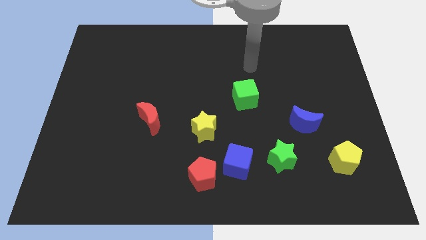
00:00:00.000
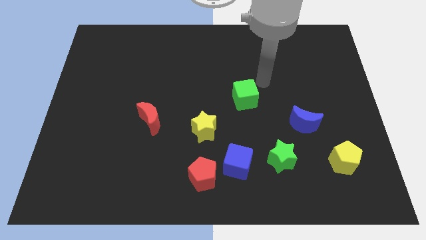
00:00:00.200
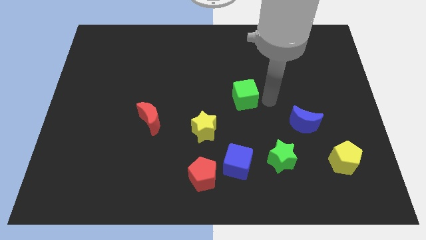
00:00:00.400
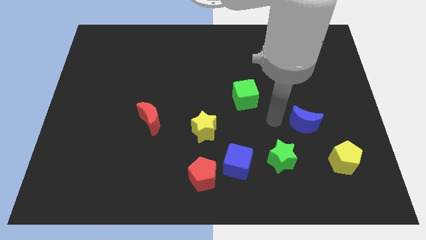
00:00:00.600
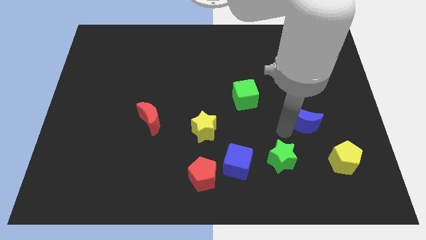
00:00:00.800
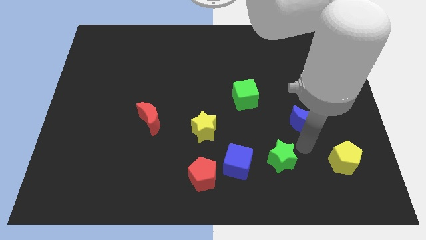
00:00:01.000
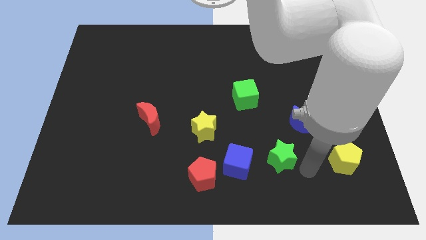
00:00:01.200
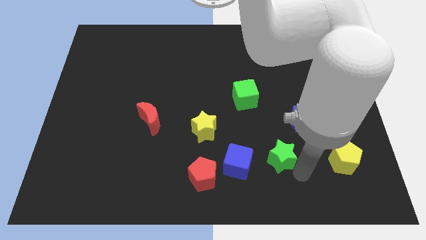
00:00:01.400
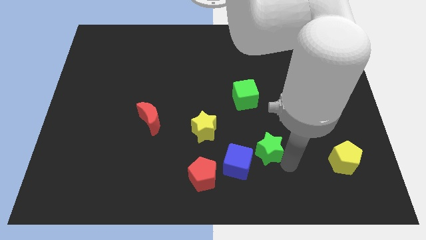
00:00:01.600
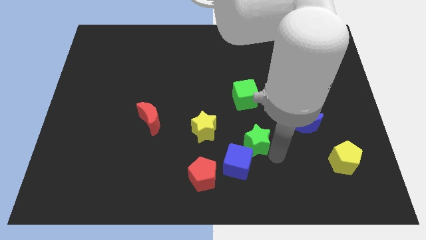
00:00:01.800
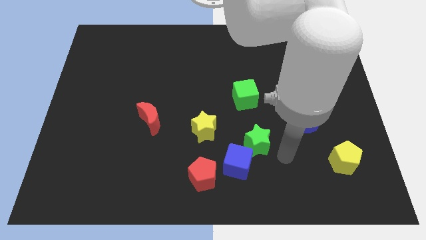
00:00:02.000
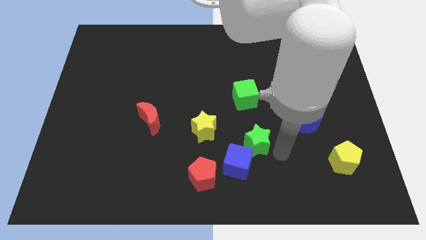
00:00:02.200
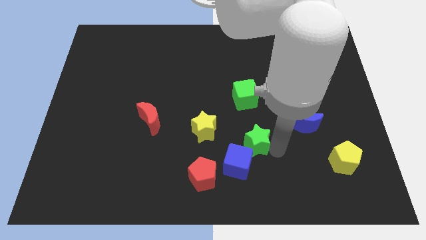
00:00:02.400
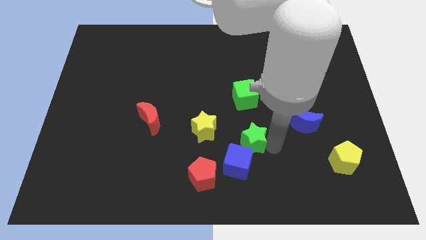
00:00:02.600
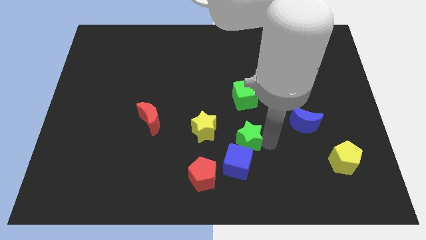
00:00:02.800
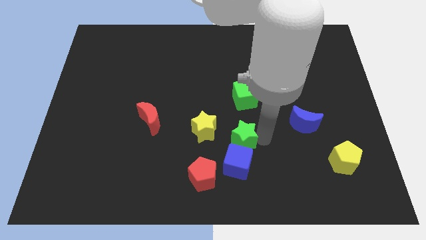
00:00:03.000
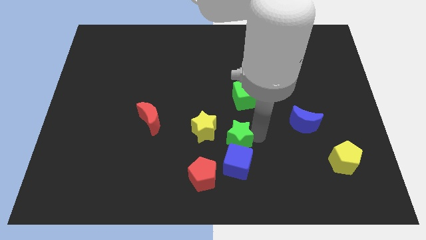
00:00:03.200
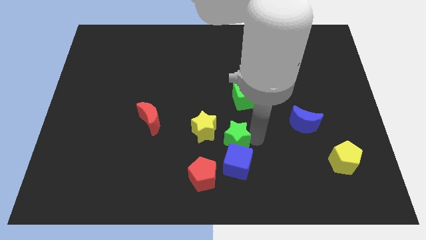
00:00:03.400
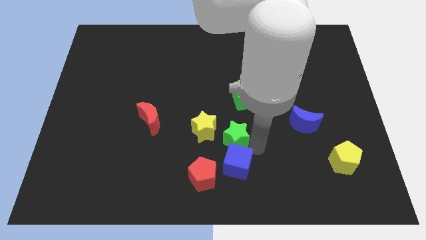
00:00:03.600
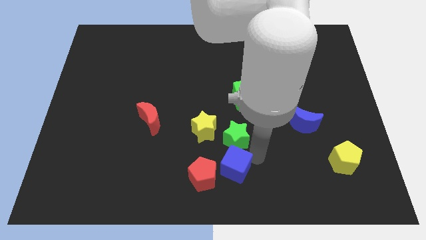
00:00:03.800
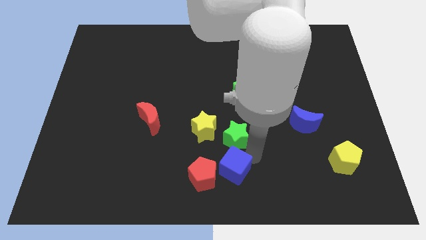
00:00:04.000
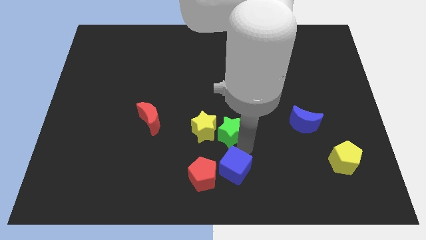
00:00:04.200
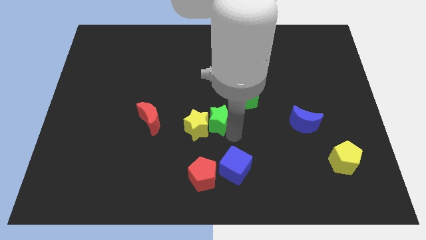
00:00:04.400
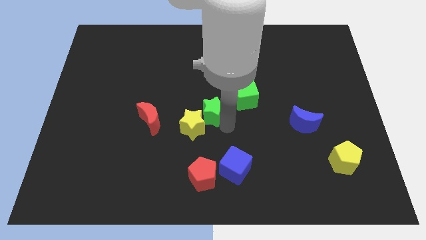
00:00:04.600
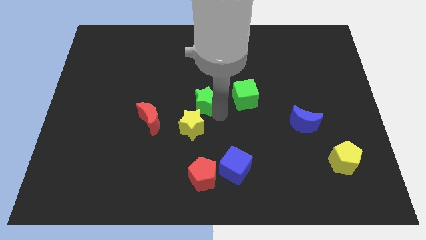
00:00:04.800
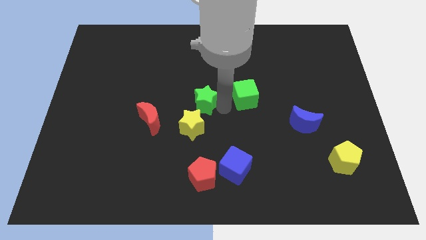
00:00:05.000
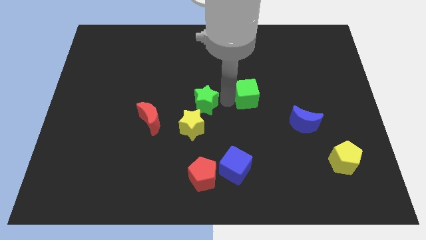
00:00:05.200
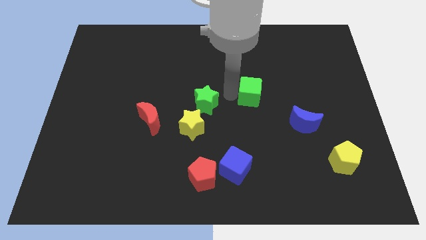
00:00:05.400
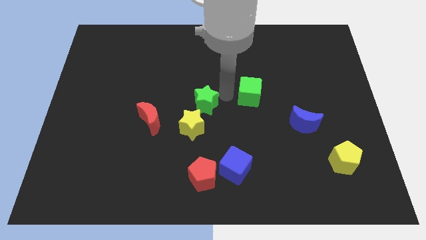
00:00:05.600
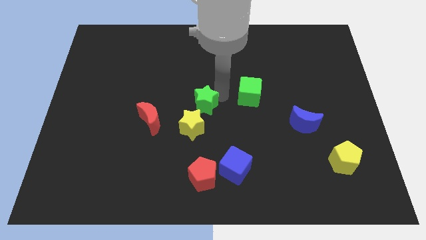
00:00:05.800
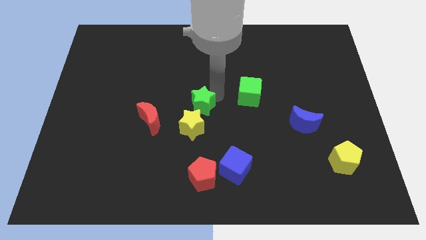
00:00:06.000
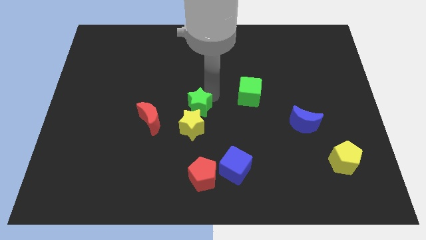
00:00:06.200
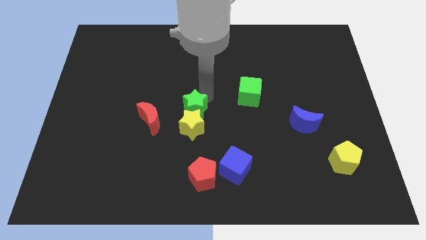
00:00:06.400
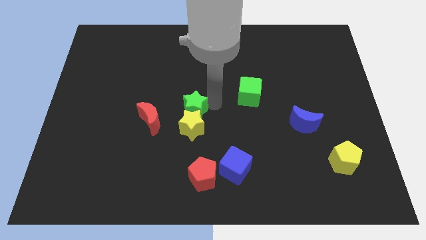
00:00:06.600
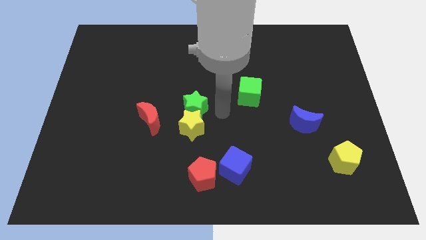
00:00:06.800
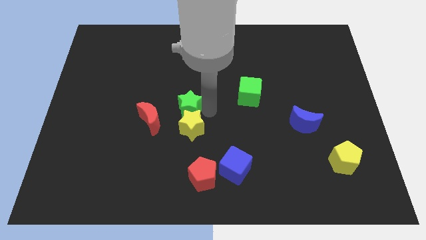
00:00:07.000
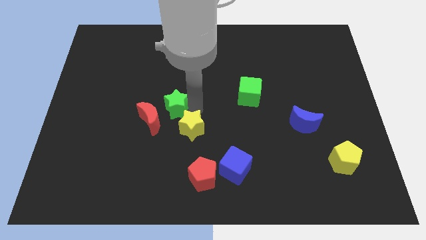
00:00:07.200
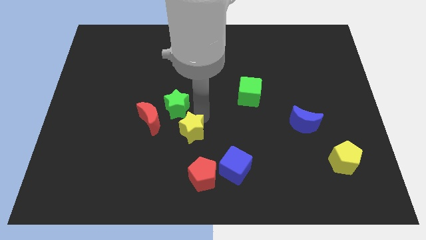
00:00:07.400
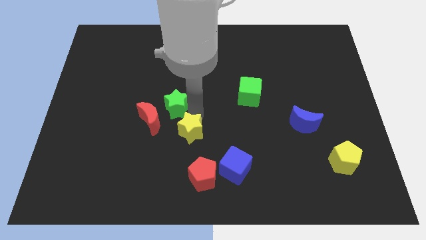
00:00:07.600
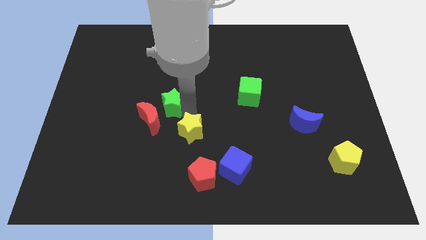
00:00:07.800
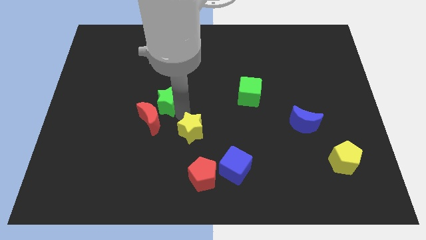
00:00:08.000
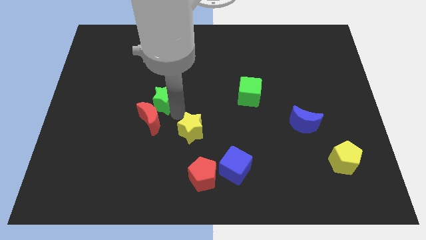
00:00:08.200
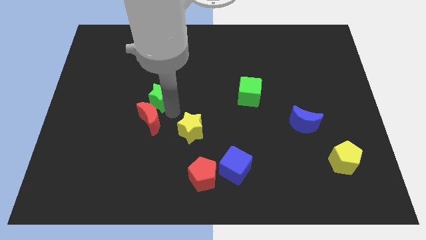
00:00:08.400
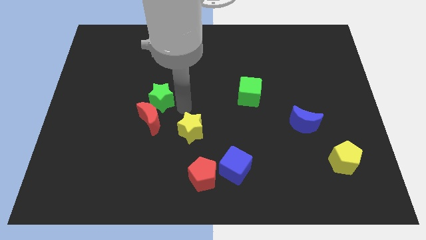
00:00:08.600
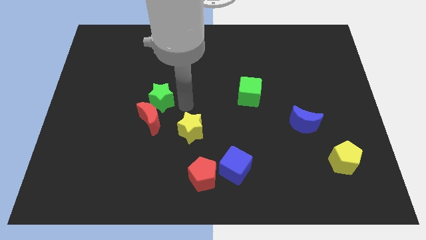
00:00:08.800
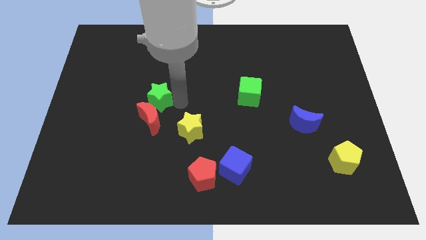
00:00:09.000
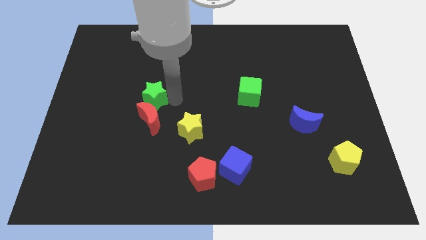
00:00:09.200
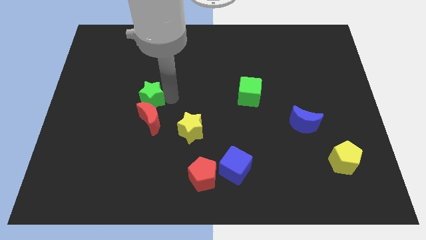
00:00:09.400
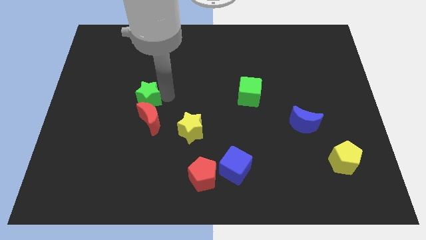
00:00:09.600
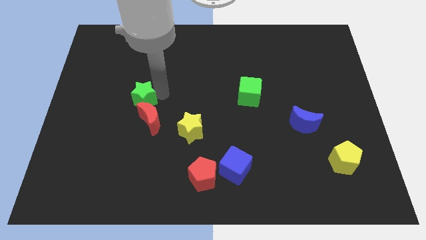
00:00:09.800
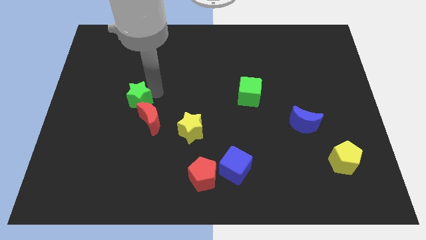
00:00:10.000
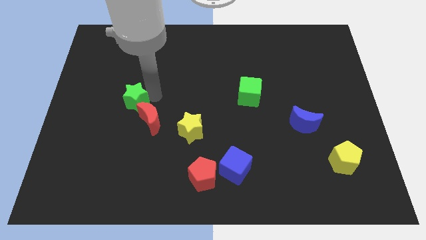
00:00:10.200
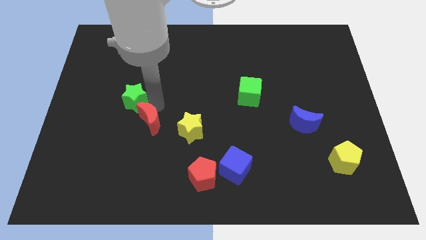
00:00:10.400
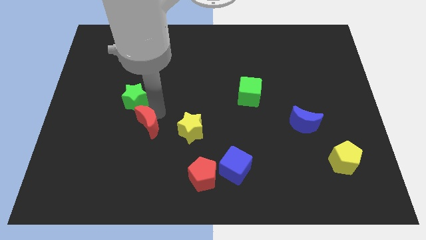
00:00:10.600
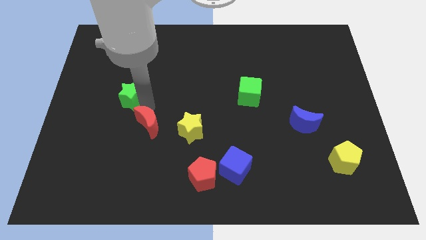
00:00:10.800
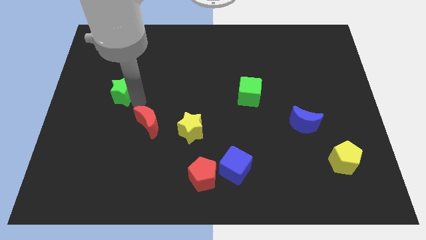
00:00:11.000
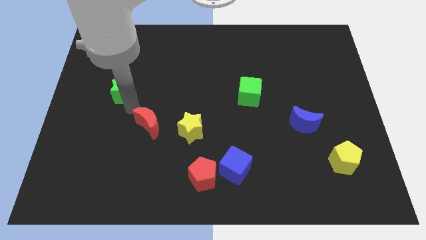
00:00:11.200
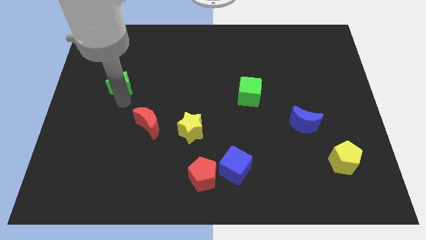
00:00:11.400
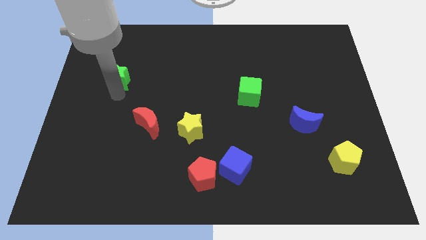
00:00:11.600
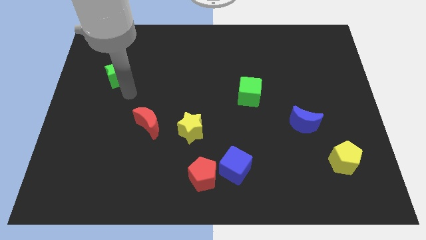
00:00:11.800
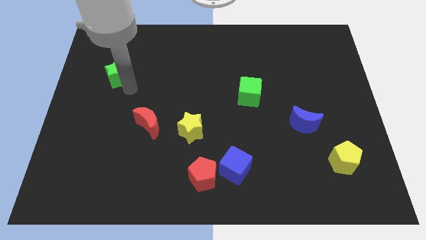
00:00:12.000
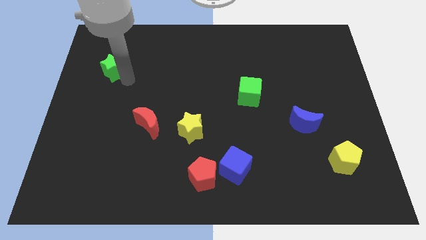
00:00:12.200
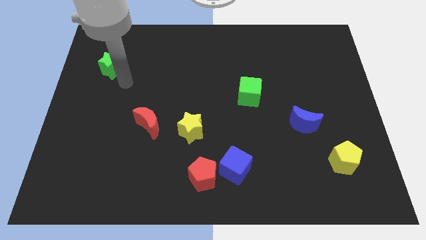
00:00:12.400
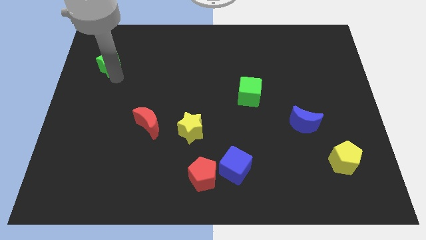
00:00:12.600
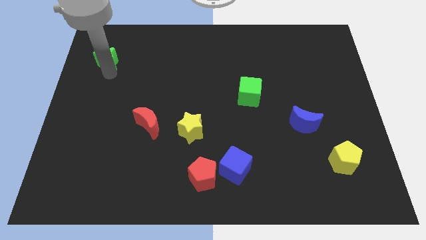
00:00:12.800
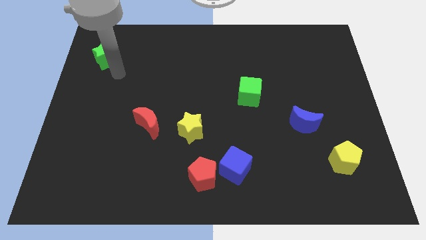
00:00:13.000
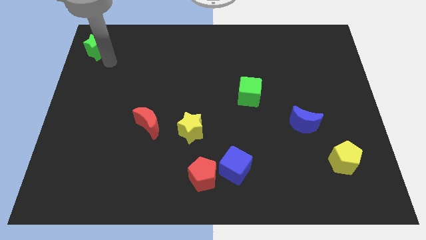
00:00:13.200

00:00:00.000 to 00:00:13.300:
move the green star to the top left
